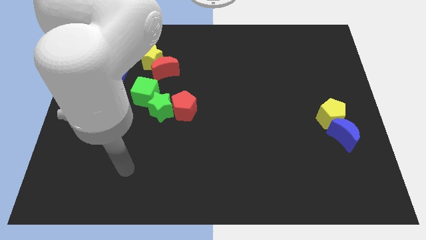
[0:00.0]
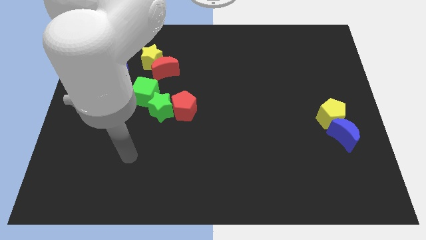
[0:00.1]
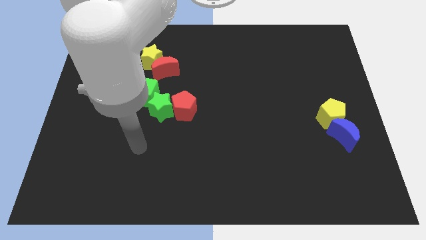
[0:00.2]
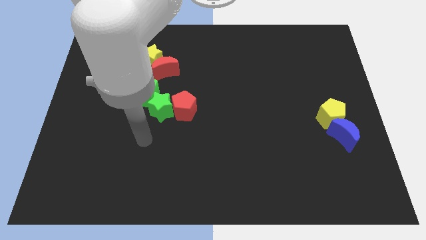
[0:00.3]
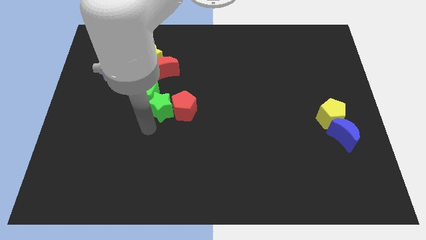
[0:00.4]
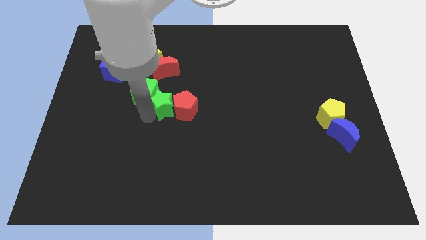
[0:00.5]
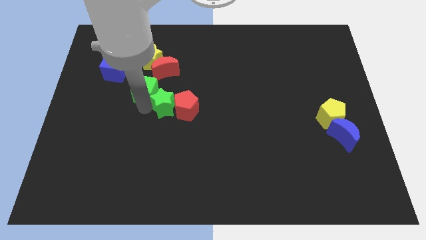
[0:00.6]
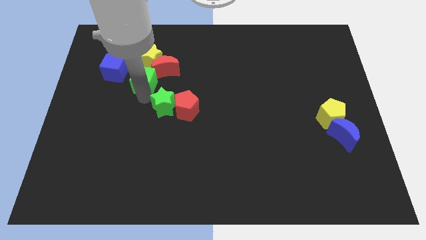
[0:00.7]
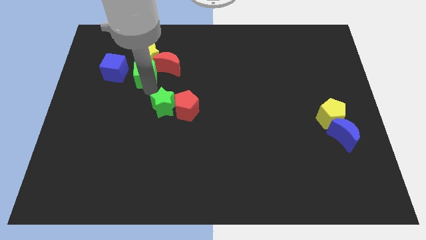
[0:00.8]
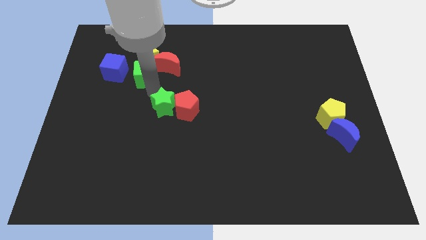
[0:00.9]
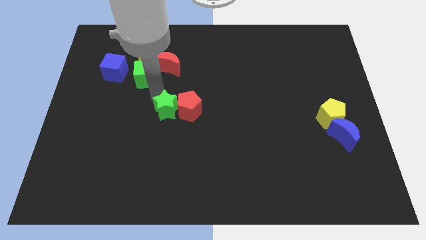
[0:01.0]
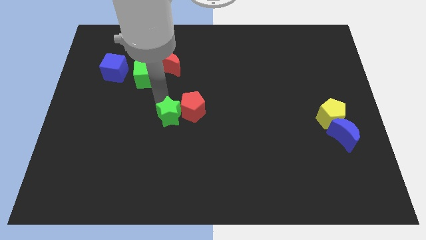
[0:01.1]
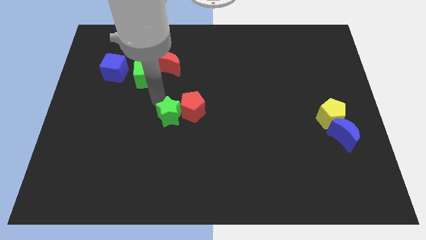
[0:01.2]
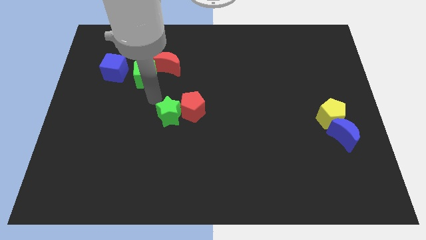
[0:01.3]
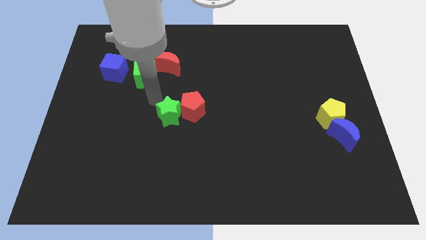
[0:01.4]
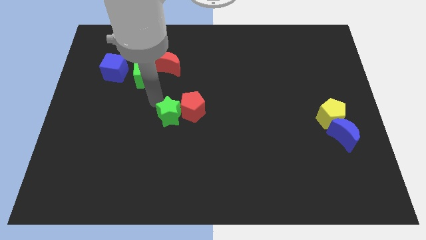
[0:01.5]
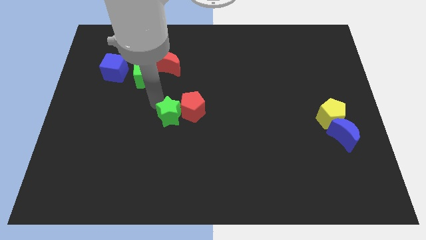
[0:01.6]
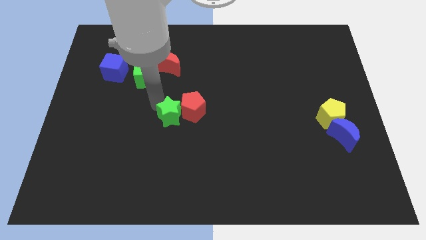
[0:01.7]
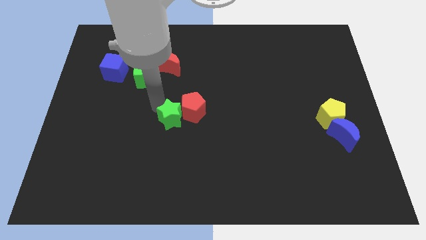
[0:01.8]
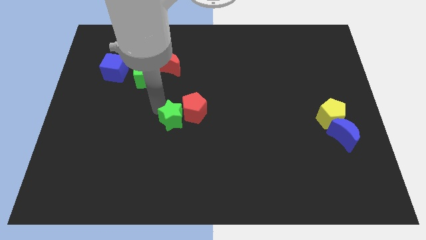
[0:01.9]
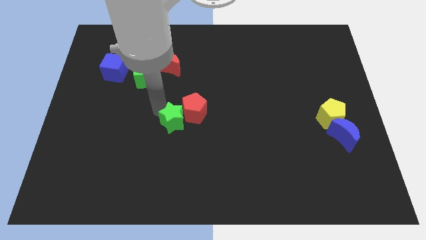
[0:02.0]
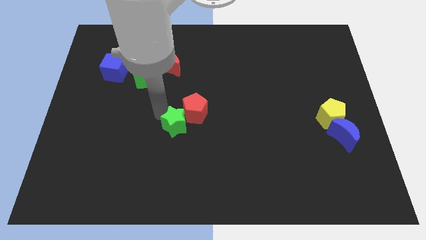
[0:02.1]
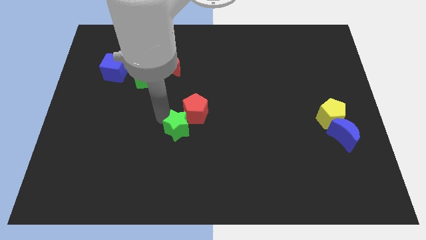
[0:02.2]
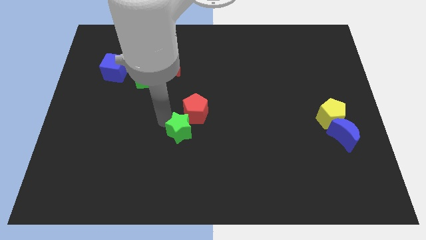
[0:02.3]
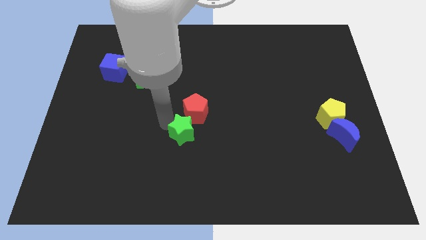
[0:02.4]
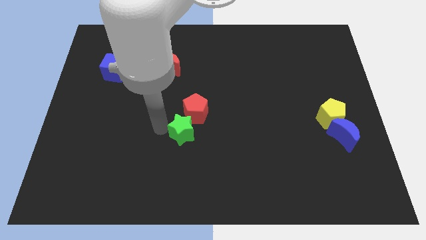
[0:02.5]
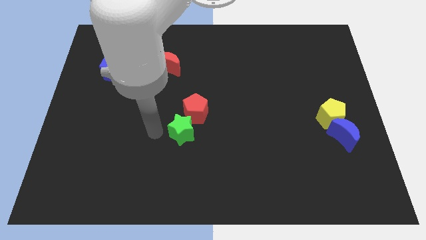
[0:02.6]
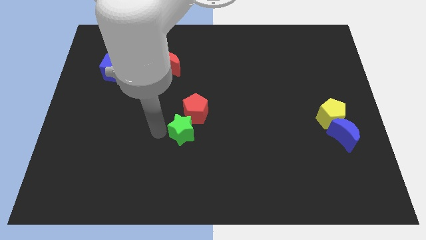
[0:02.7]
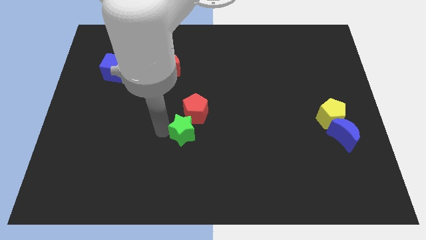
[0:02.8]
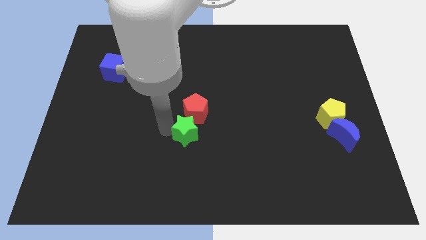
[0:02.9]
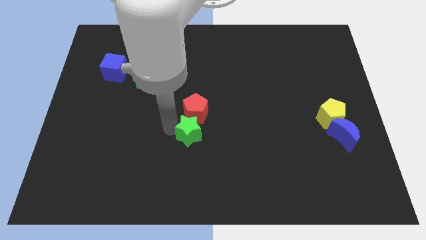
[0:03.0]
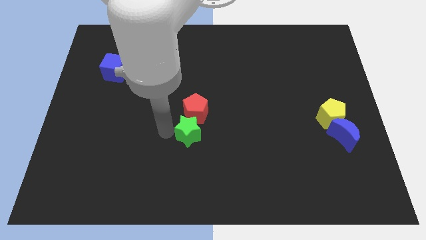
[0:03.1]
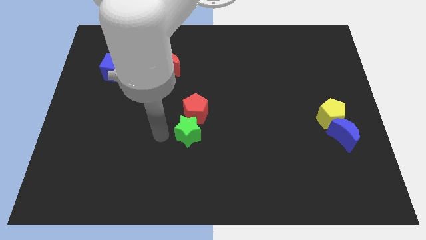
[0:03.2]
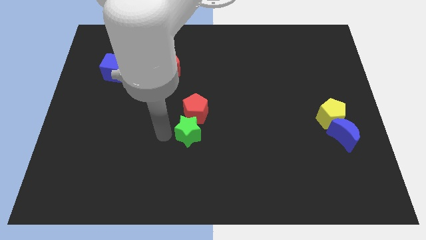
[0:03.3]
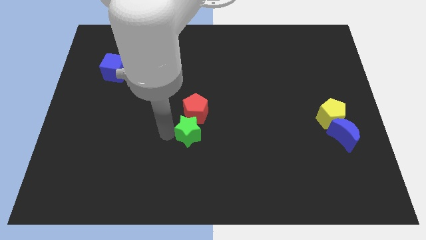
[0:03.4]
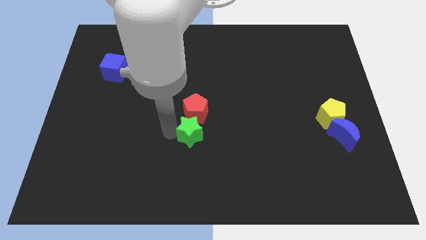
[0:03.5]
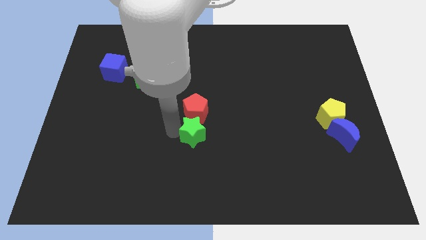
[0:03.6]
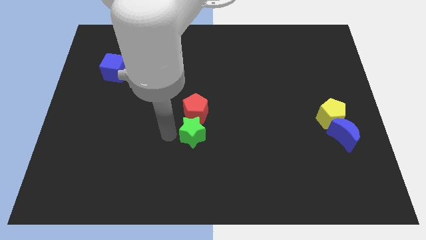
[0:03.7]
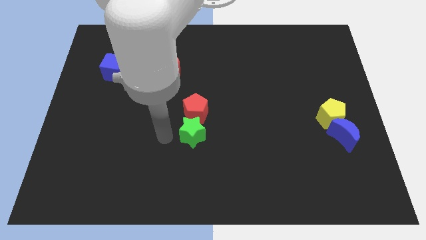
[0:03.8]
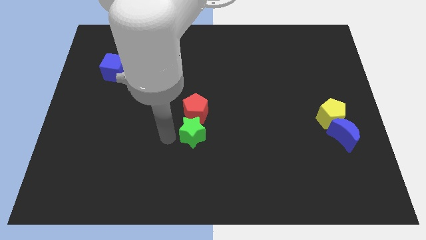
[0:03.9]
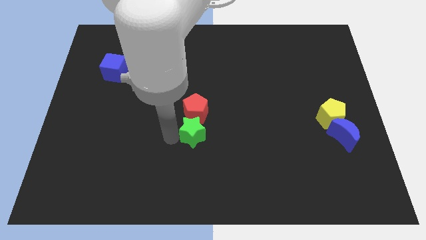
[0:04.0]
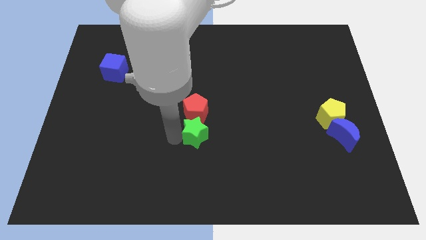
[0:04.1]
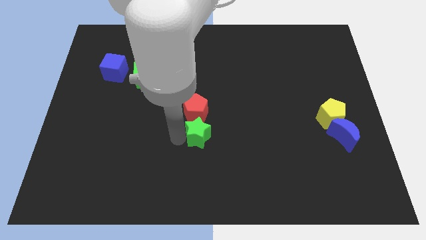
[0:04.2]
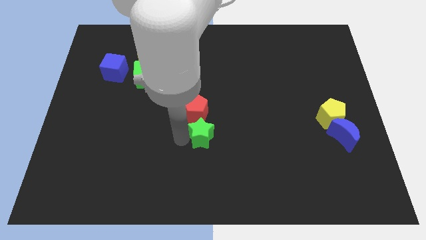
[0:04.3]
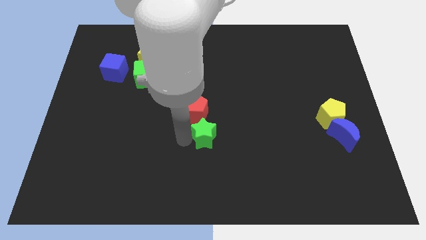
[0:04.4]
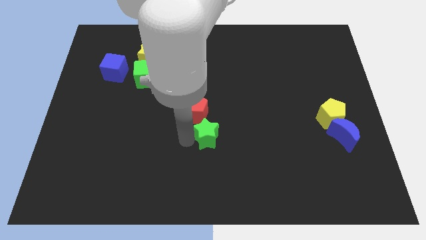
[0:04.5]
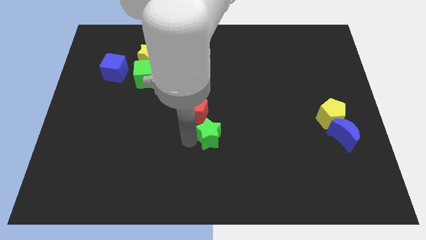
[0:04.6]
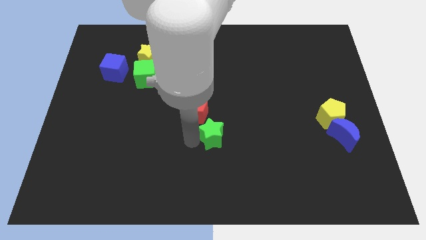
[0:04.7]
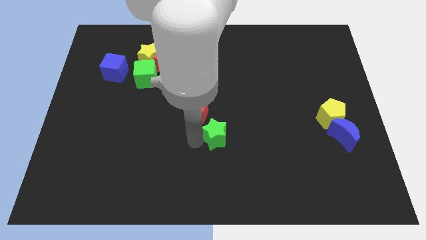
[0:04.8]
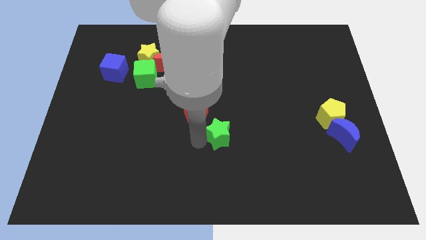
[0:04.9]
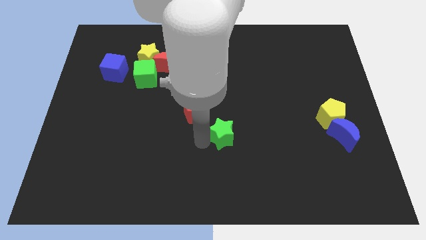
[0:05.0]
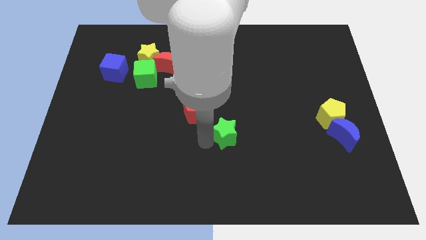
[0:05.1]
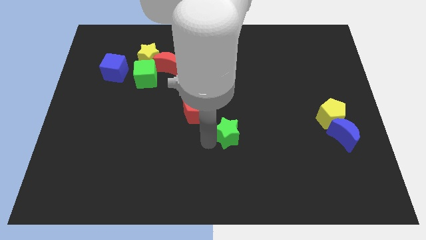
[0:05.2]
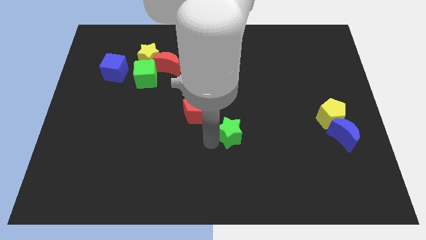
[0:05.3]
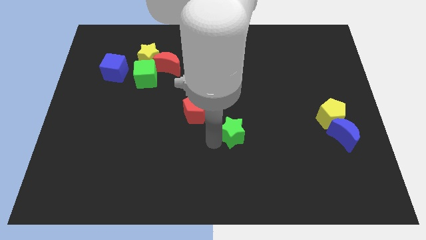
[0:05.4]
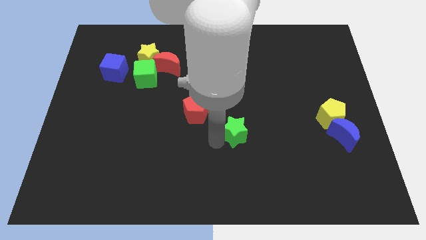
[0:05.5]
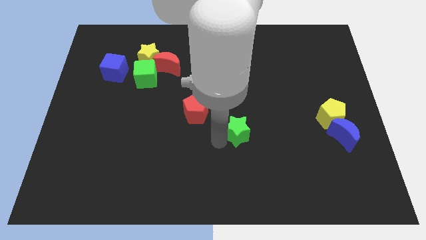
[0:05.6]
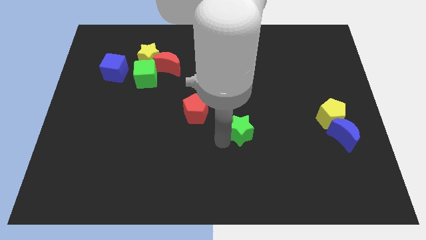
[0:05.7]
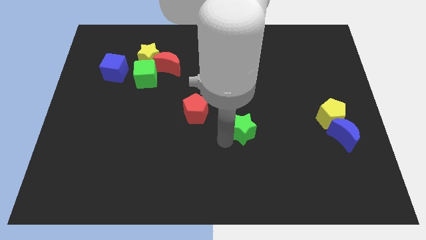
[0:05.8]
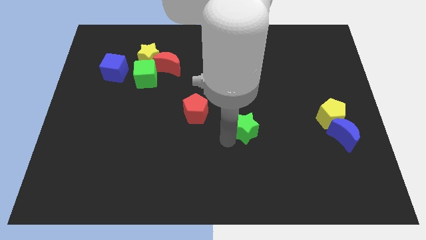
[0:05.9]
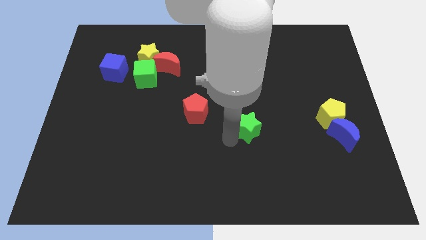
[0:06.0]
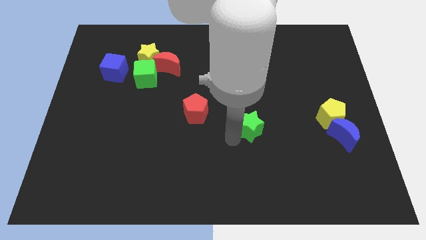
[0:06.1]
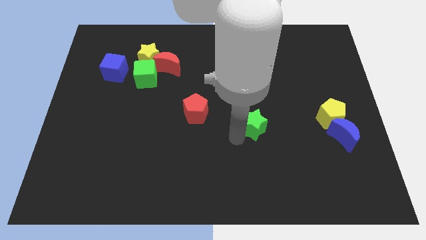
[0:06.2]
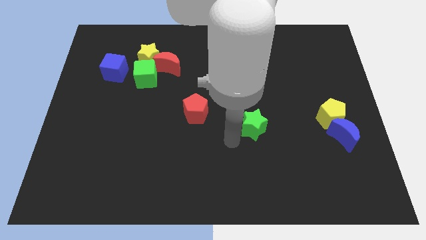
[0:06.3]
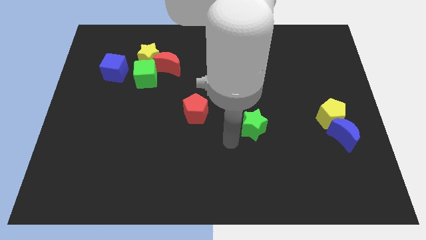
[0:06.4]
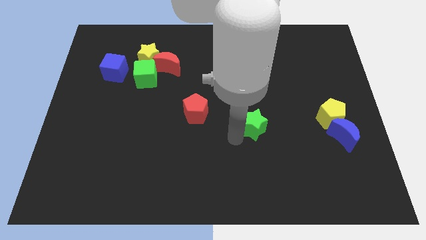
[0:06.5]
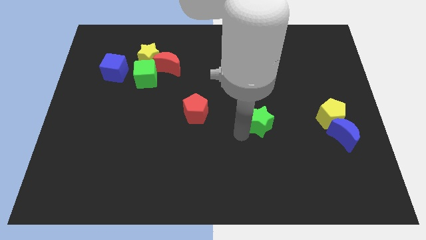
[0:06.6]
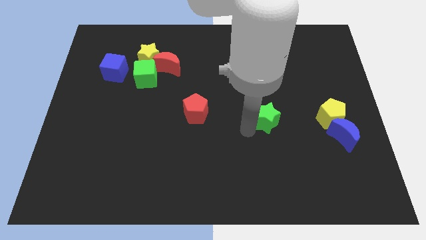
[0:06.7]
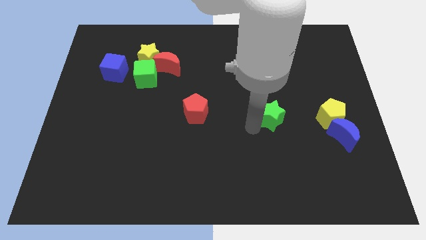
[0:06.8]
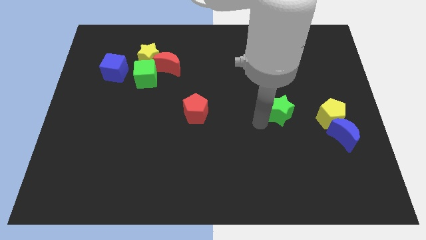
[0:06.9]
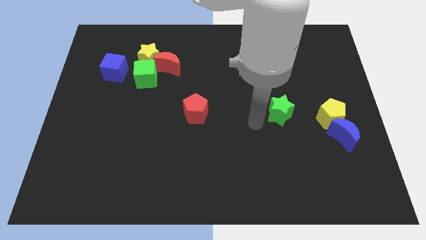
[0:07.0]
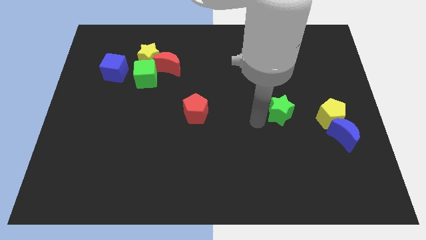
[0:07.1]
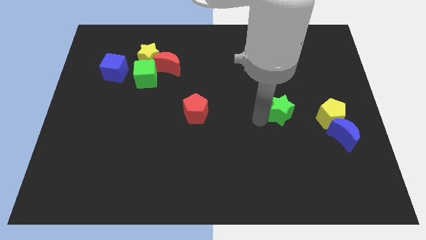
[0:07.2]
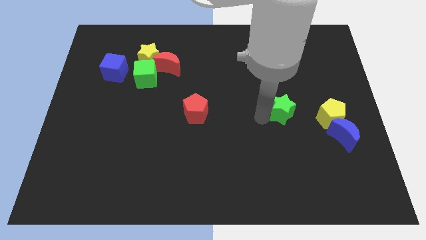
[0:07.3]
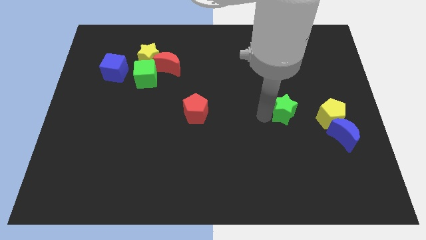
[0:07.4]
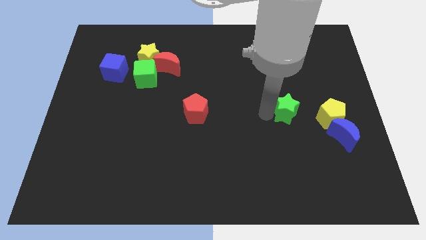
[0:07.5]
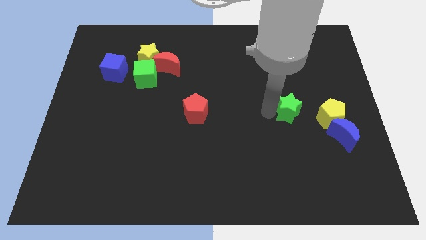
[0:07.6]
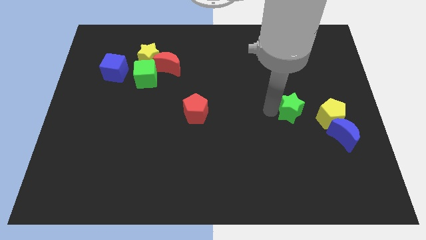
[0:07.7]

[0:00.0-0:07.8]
move the green star diagonally up and to the left of the yellow pentagon
